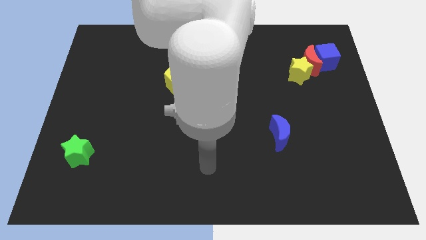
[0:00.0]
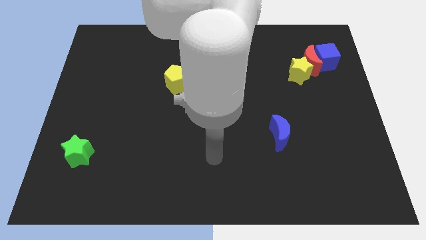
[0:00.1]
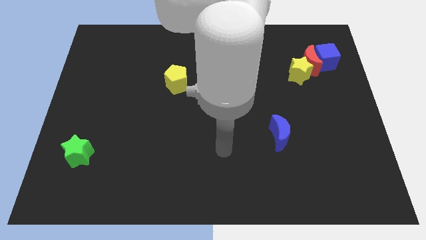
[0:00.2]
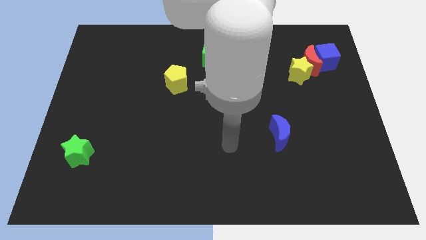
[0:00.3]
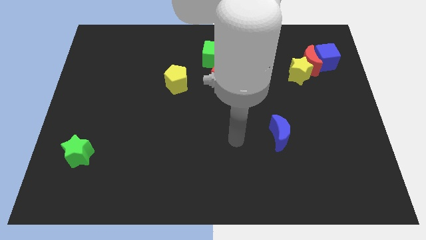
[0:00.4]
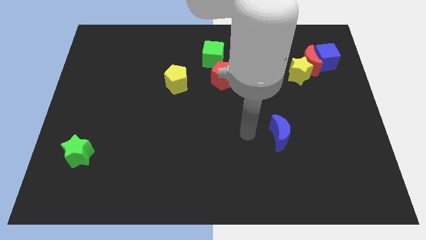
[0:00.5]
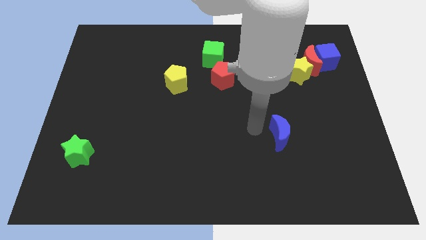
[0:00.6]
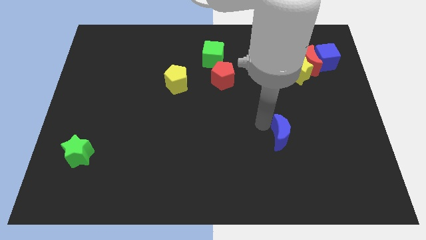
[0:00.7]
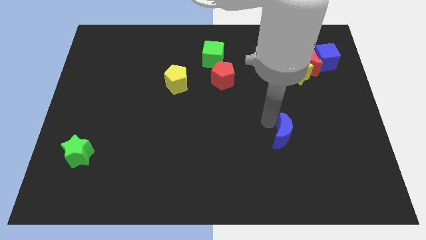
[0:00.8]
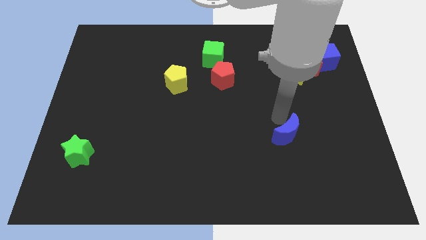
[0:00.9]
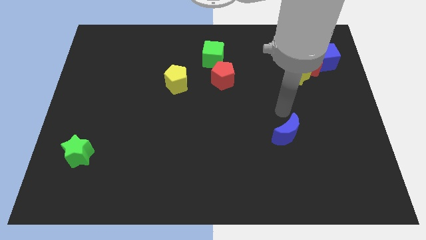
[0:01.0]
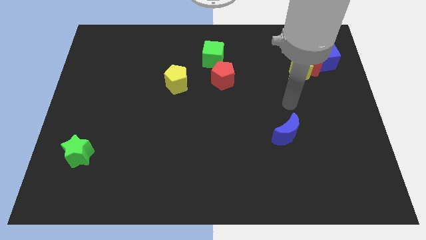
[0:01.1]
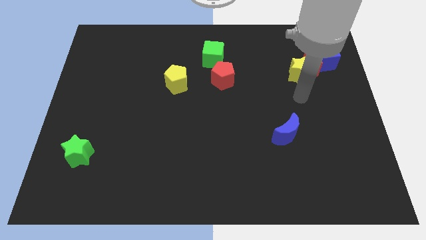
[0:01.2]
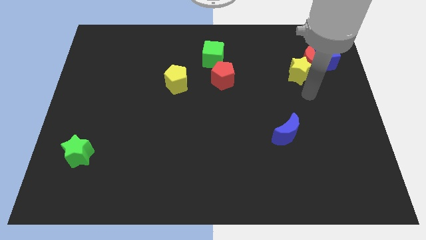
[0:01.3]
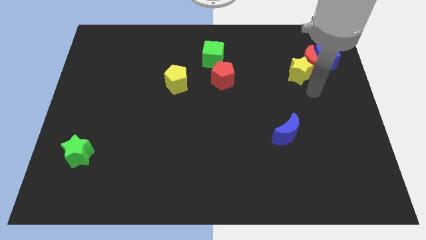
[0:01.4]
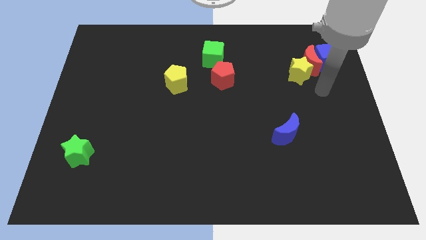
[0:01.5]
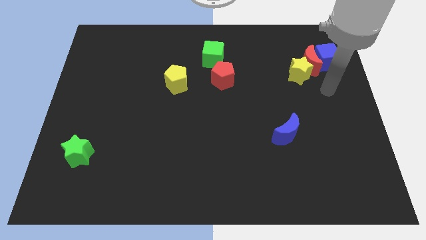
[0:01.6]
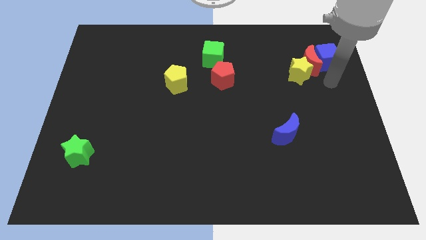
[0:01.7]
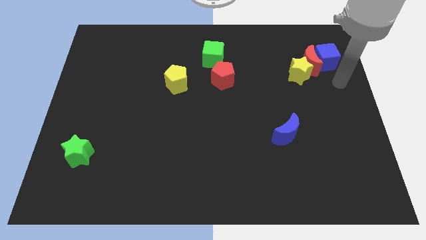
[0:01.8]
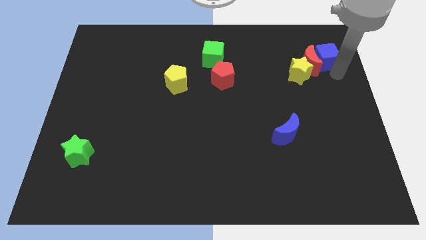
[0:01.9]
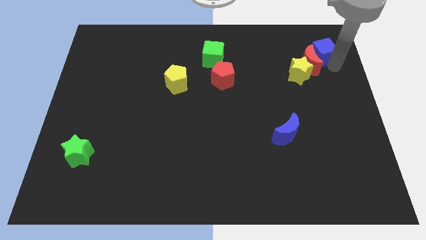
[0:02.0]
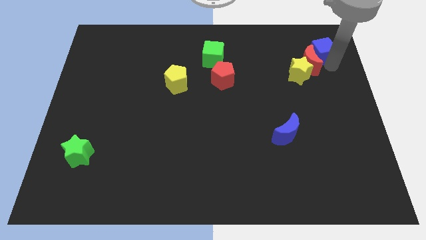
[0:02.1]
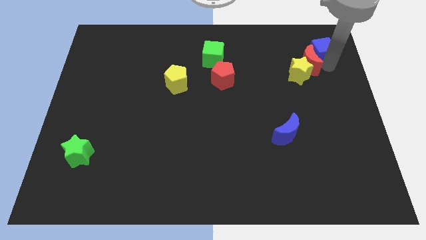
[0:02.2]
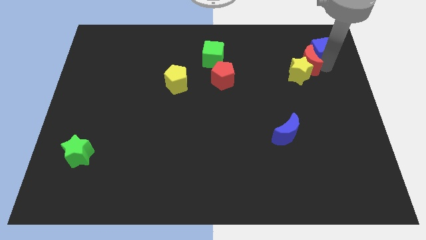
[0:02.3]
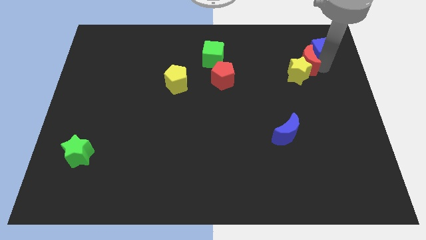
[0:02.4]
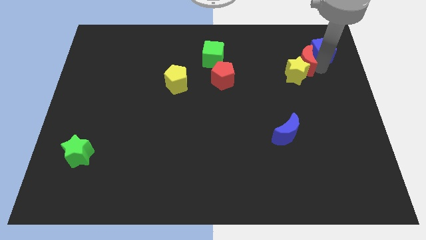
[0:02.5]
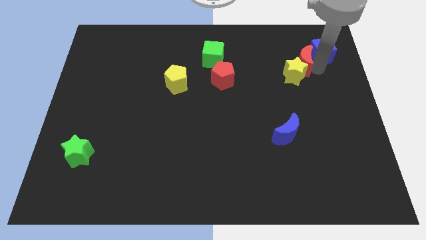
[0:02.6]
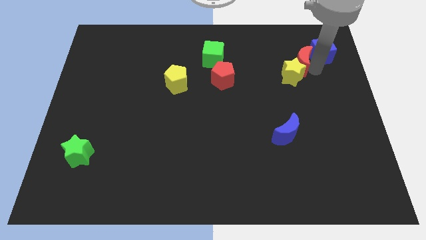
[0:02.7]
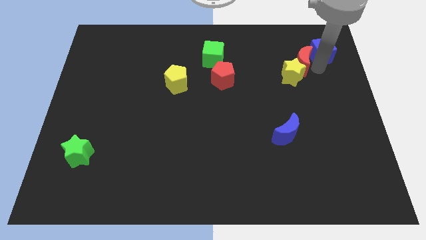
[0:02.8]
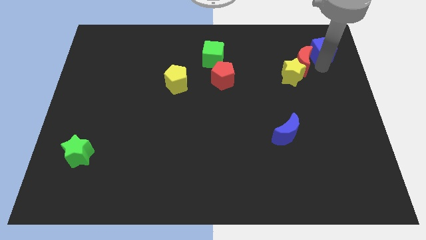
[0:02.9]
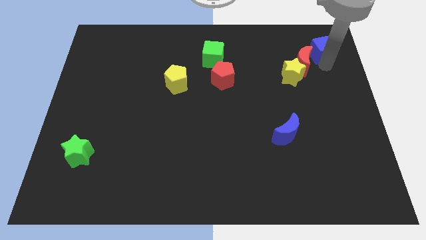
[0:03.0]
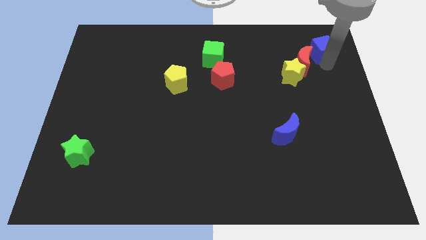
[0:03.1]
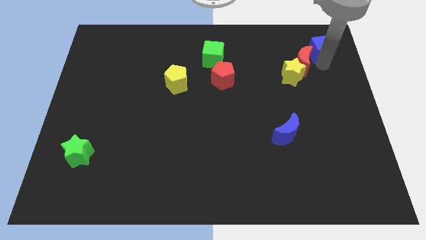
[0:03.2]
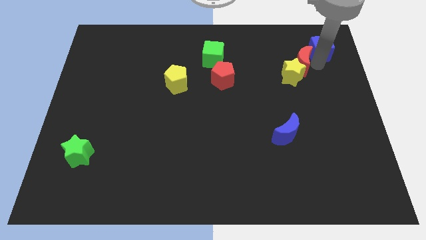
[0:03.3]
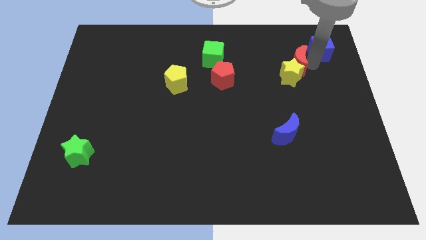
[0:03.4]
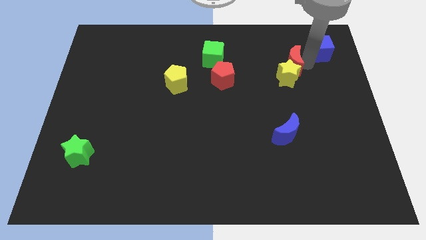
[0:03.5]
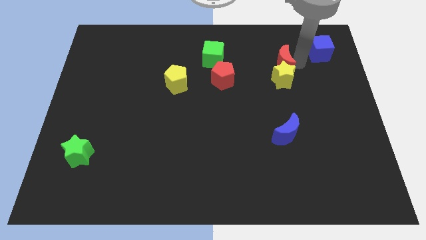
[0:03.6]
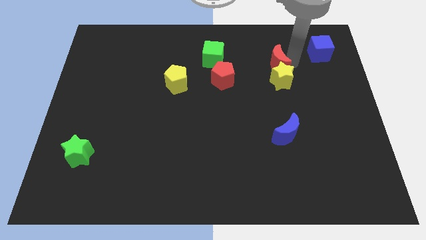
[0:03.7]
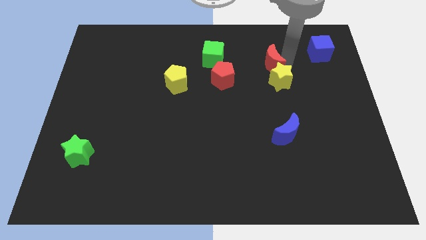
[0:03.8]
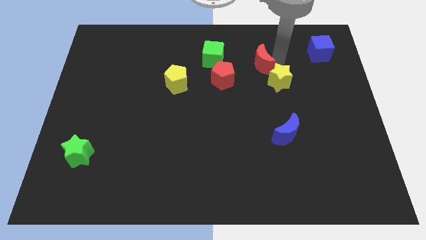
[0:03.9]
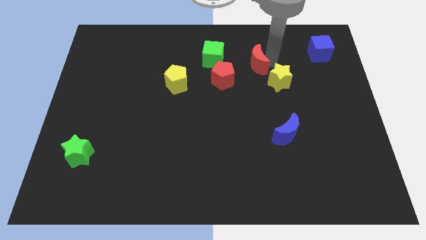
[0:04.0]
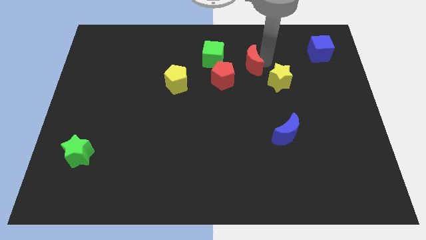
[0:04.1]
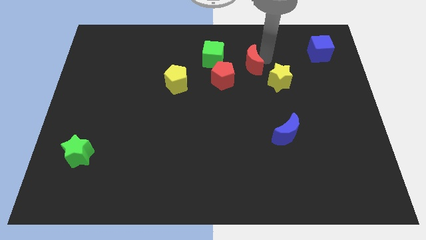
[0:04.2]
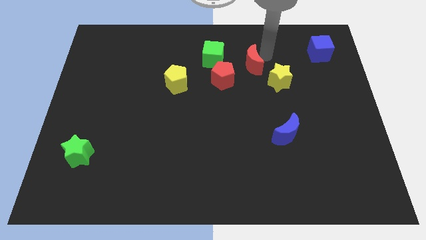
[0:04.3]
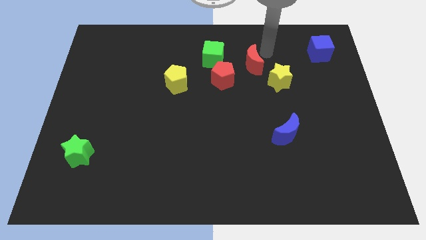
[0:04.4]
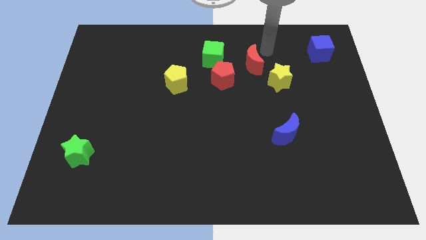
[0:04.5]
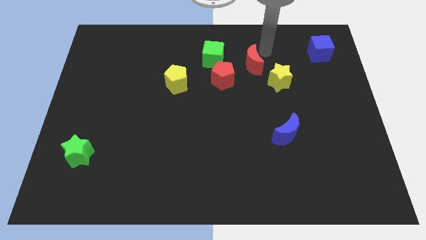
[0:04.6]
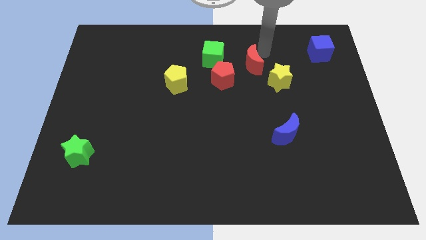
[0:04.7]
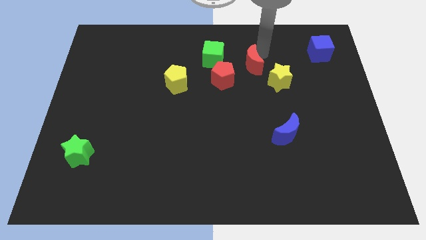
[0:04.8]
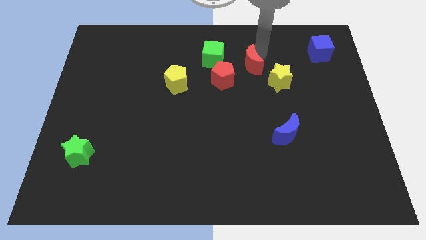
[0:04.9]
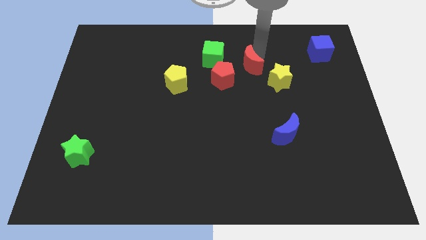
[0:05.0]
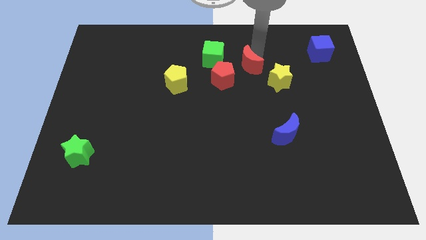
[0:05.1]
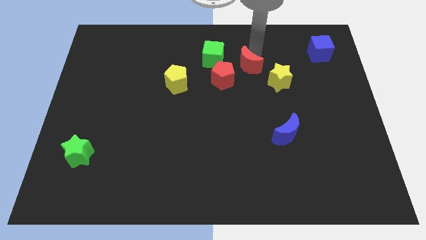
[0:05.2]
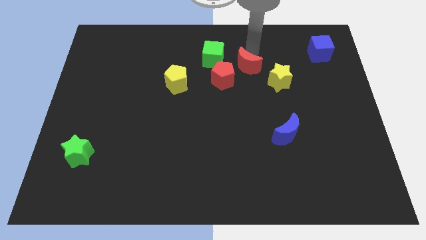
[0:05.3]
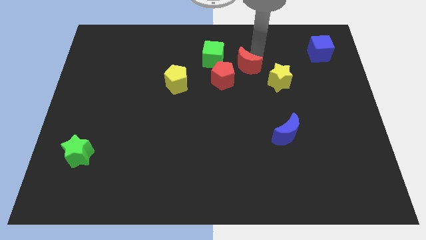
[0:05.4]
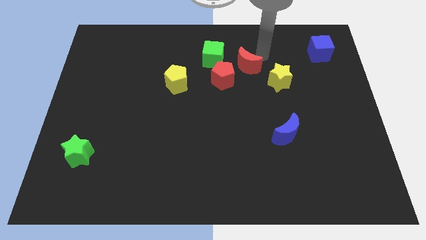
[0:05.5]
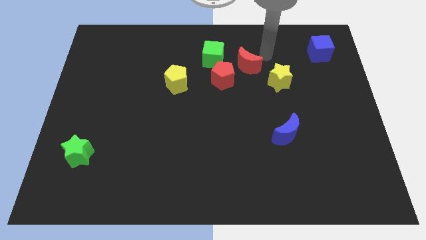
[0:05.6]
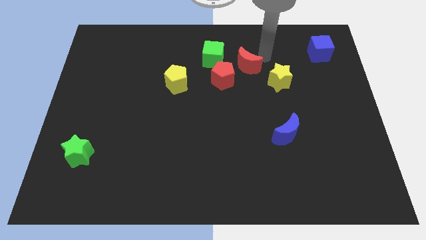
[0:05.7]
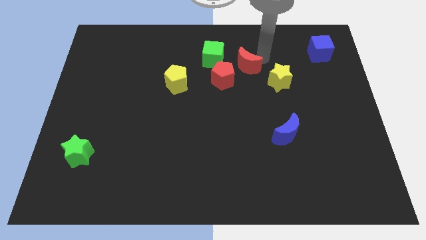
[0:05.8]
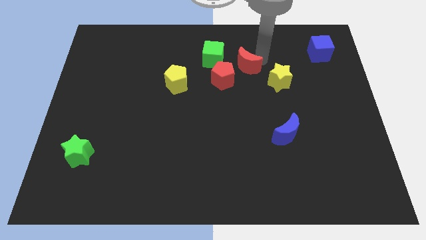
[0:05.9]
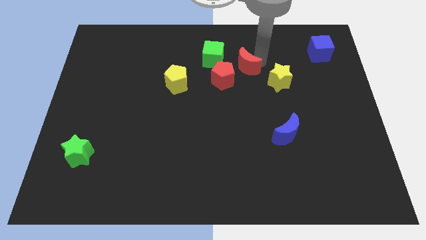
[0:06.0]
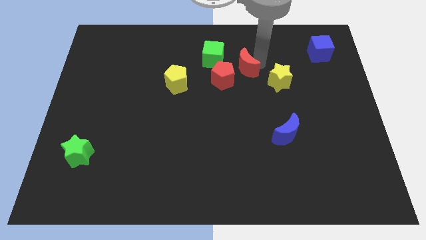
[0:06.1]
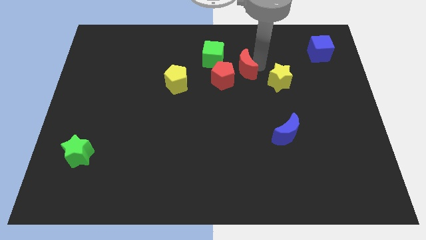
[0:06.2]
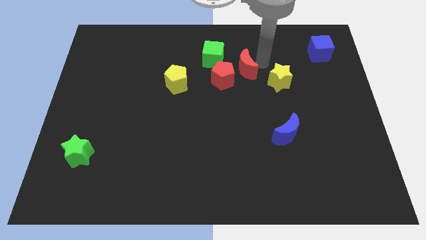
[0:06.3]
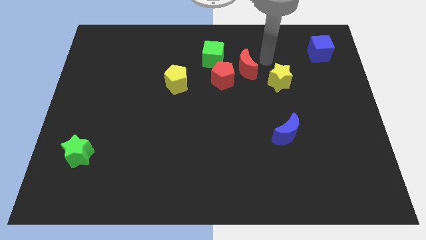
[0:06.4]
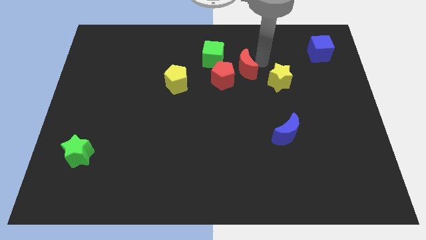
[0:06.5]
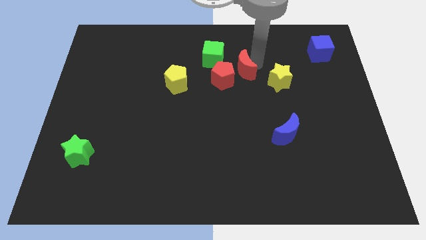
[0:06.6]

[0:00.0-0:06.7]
push the red moon towards the red pentagon

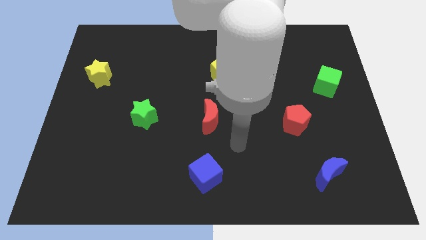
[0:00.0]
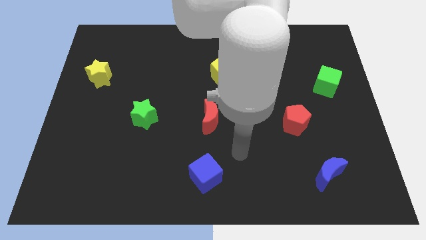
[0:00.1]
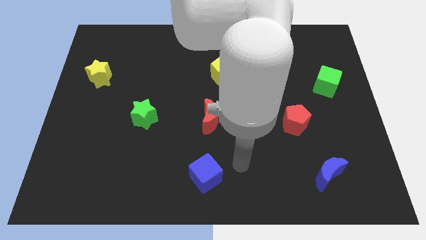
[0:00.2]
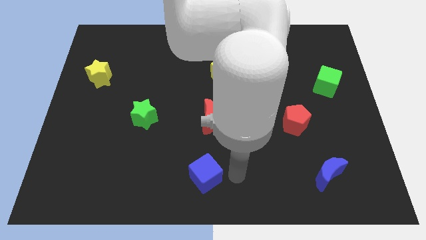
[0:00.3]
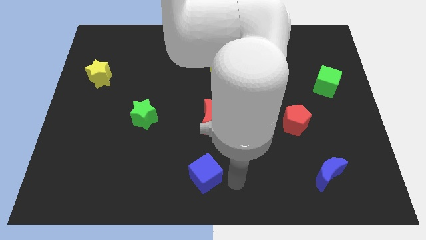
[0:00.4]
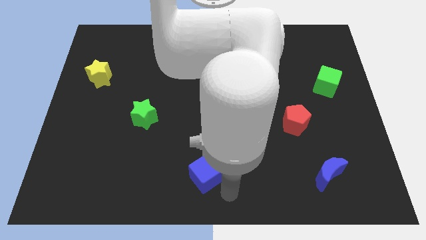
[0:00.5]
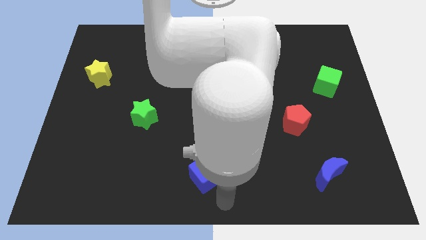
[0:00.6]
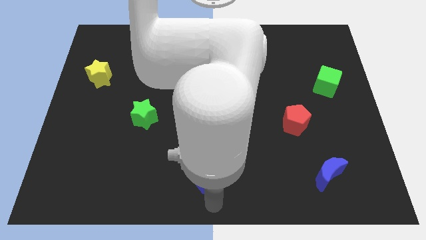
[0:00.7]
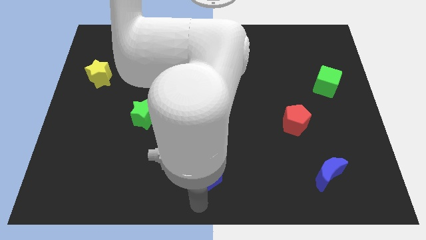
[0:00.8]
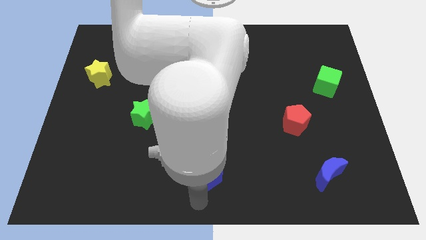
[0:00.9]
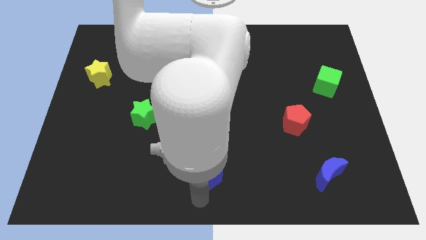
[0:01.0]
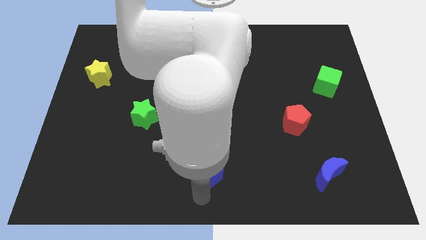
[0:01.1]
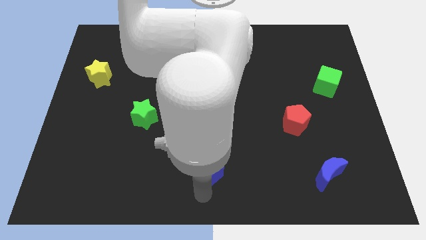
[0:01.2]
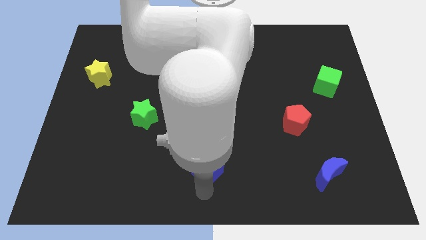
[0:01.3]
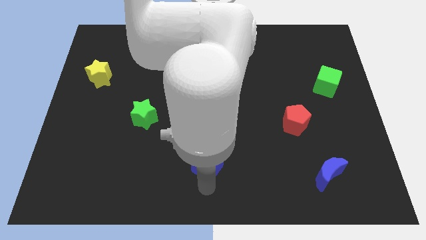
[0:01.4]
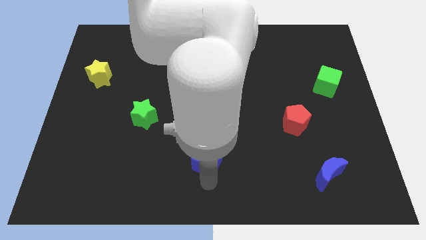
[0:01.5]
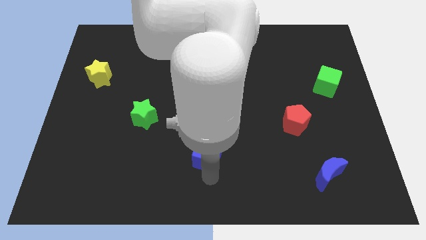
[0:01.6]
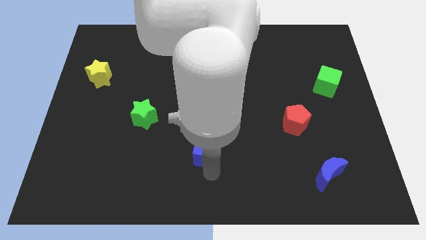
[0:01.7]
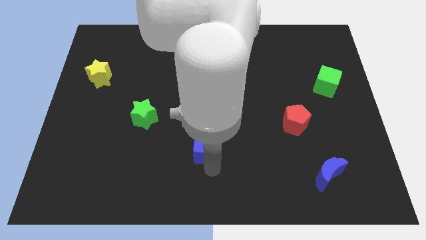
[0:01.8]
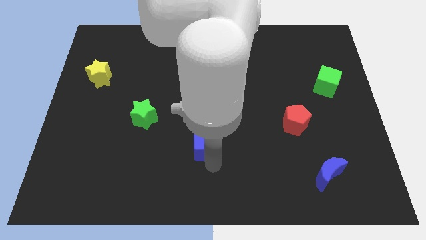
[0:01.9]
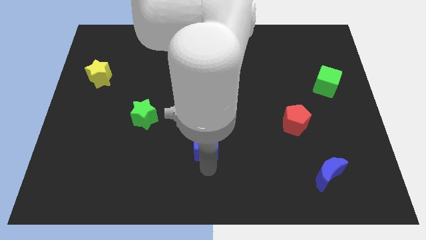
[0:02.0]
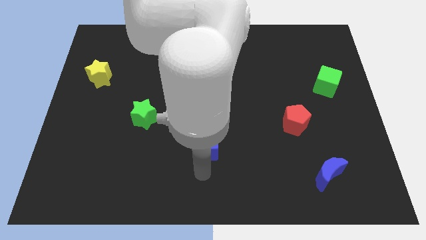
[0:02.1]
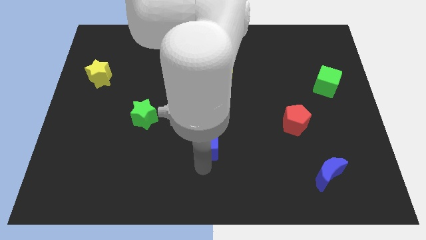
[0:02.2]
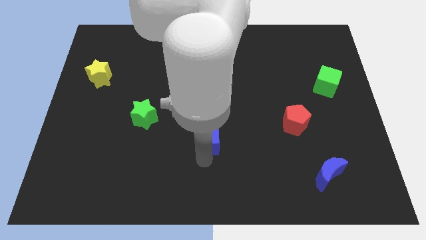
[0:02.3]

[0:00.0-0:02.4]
push the blue cube next to the red moon
